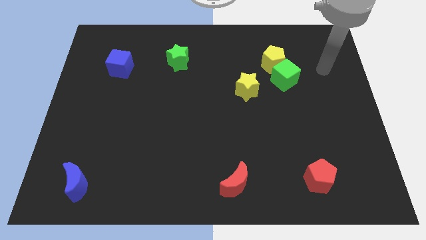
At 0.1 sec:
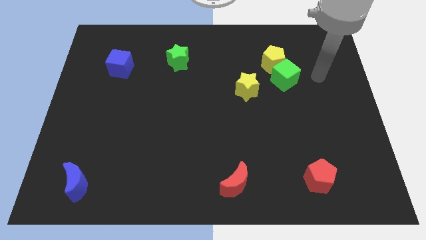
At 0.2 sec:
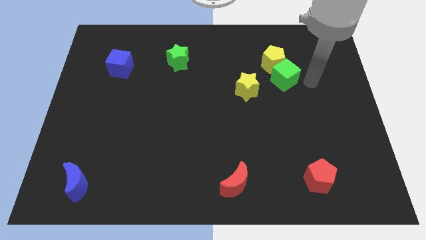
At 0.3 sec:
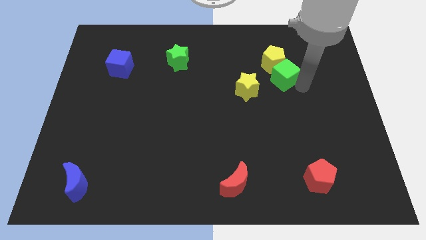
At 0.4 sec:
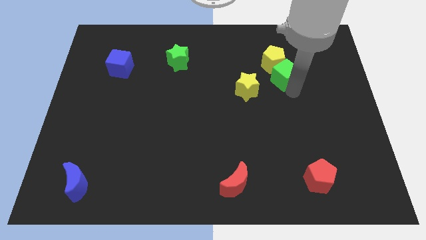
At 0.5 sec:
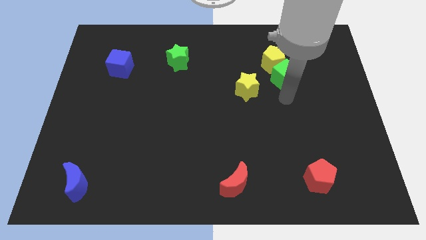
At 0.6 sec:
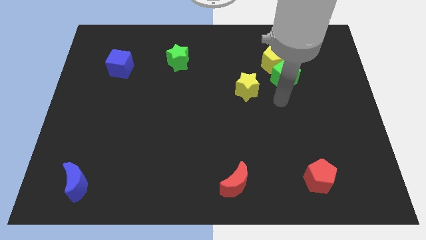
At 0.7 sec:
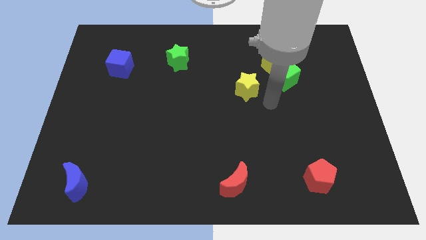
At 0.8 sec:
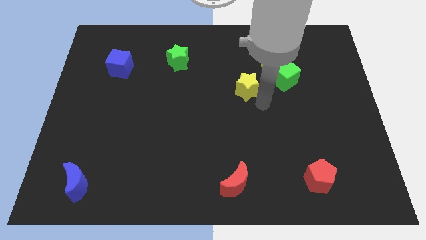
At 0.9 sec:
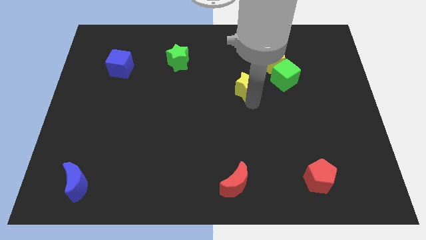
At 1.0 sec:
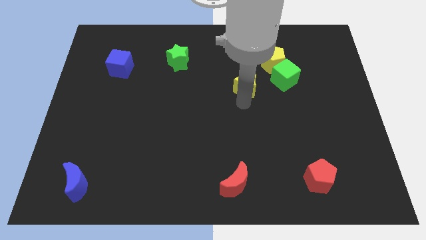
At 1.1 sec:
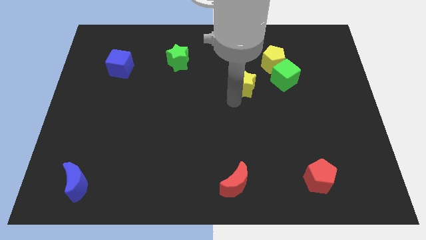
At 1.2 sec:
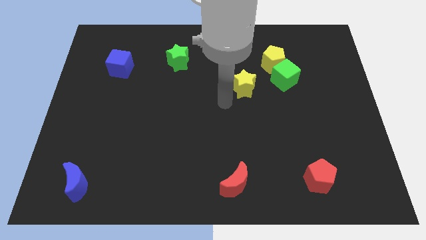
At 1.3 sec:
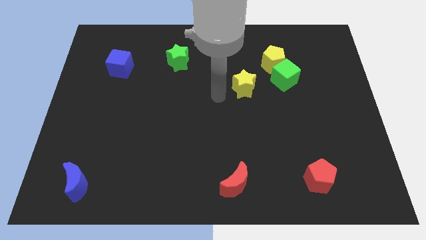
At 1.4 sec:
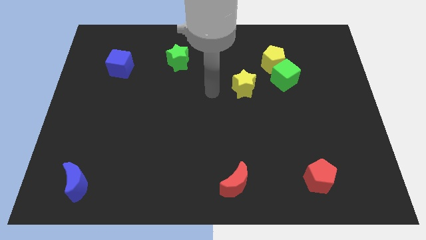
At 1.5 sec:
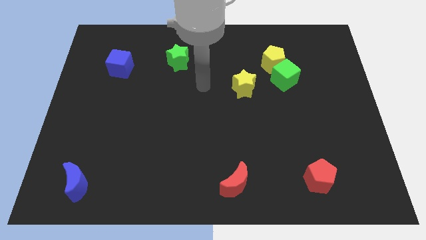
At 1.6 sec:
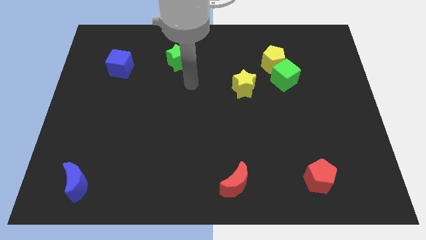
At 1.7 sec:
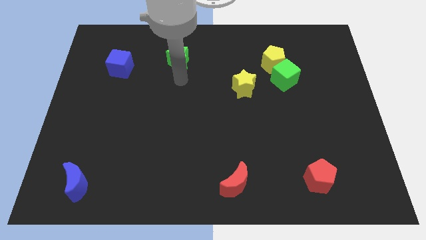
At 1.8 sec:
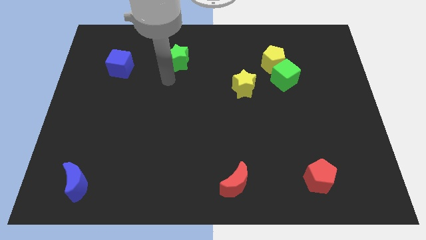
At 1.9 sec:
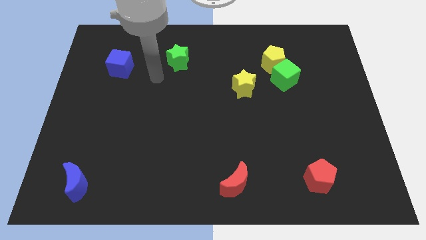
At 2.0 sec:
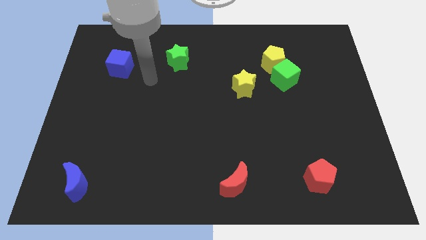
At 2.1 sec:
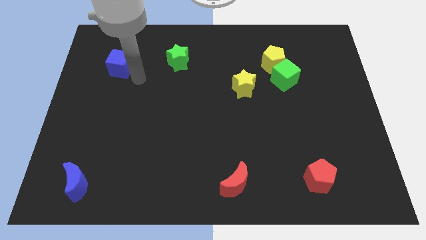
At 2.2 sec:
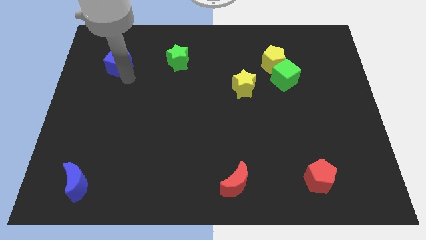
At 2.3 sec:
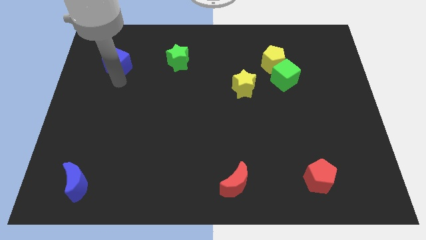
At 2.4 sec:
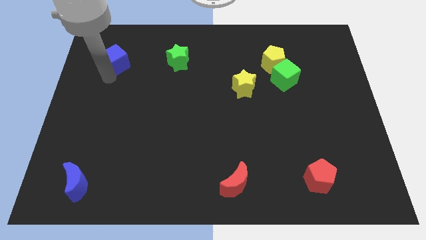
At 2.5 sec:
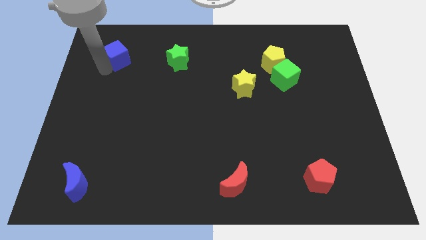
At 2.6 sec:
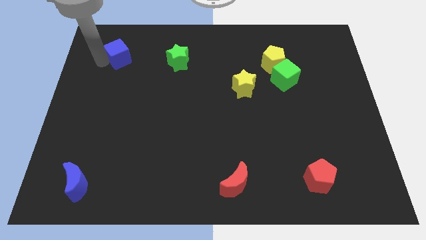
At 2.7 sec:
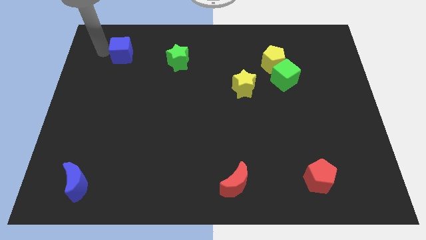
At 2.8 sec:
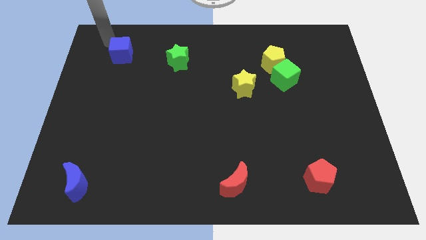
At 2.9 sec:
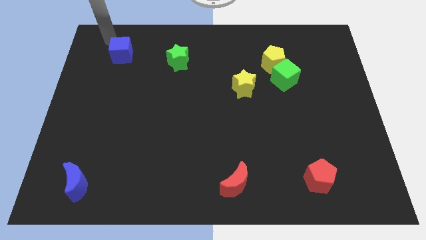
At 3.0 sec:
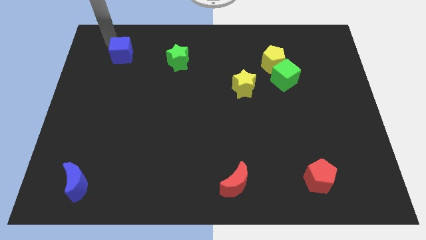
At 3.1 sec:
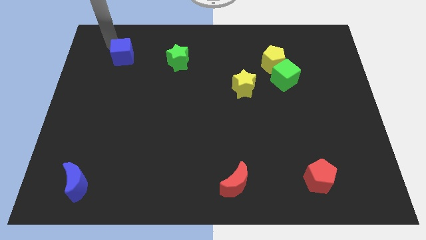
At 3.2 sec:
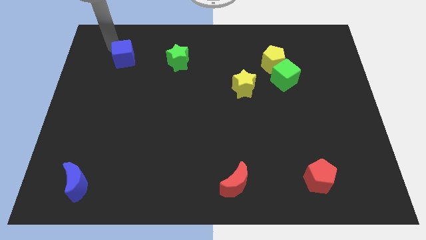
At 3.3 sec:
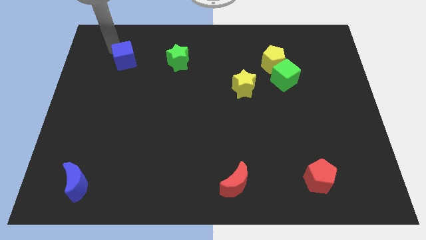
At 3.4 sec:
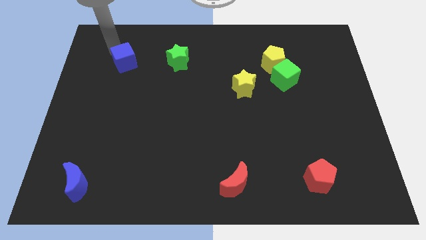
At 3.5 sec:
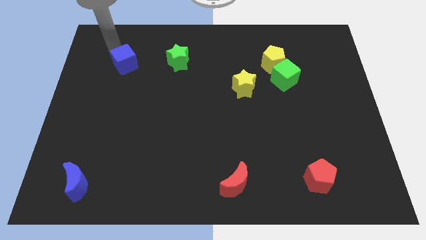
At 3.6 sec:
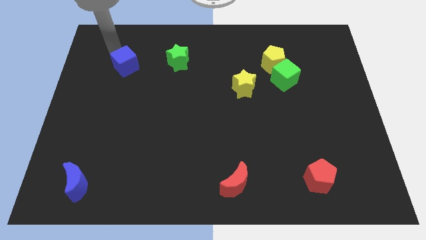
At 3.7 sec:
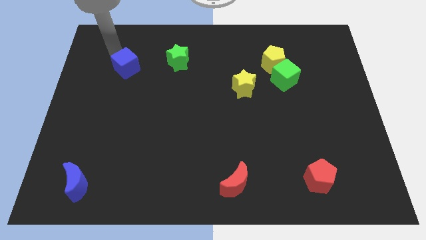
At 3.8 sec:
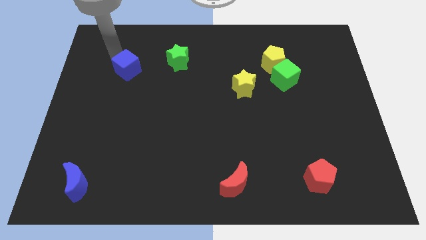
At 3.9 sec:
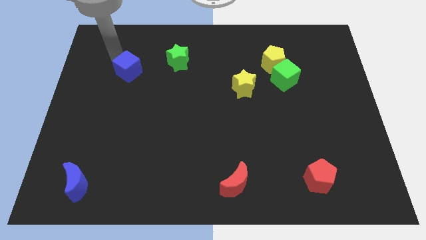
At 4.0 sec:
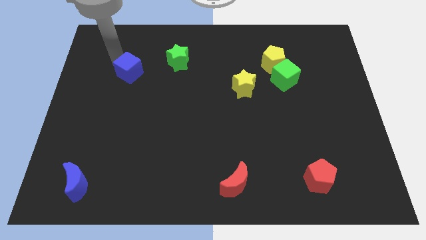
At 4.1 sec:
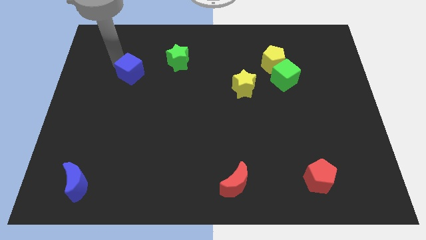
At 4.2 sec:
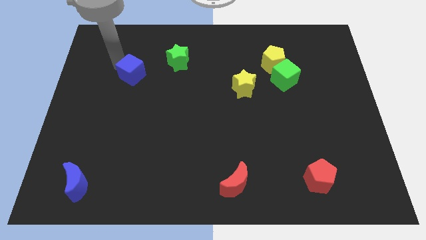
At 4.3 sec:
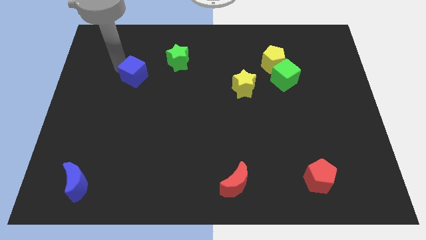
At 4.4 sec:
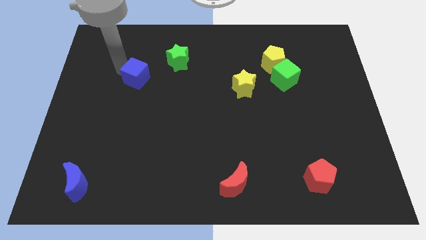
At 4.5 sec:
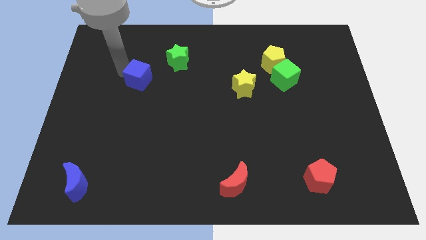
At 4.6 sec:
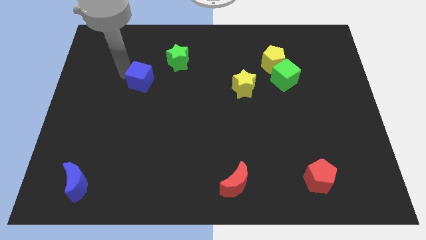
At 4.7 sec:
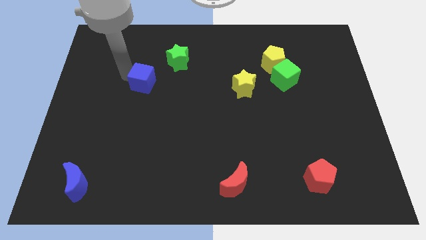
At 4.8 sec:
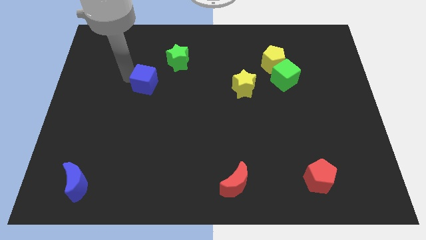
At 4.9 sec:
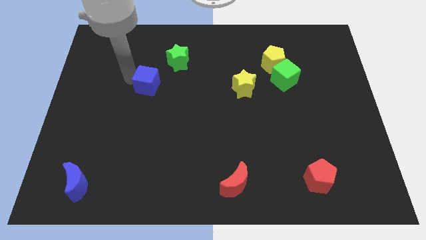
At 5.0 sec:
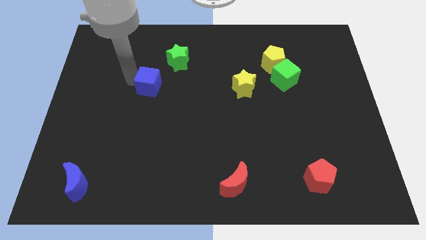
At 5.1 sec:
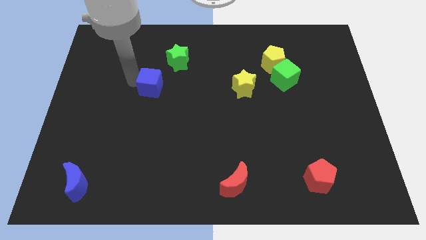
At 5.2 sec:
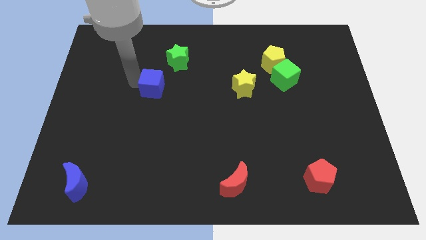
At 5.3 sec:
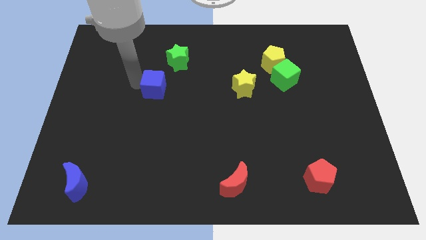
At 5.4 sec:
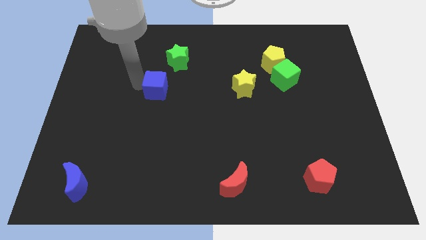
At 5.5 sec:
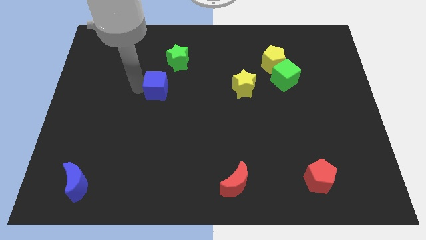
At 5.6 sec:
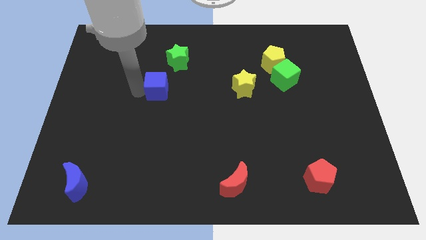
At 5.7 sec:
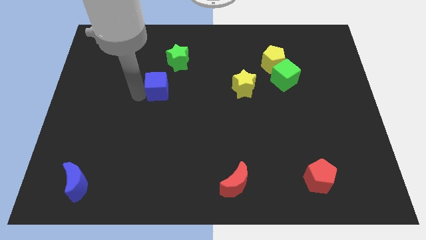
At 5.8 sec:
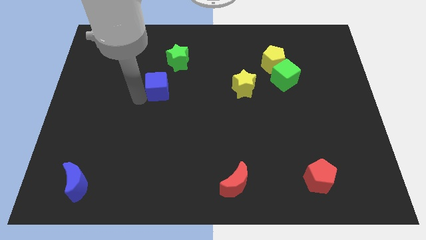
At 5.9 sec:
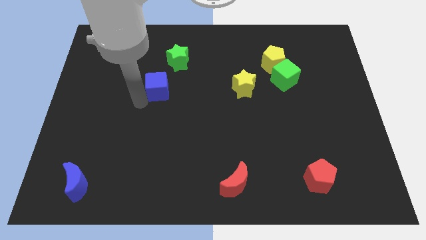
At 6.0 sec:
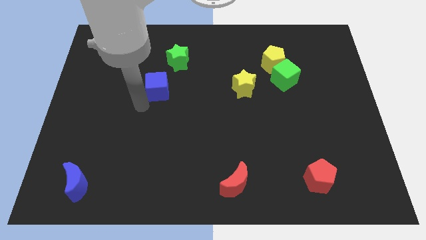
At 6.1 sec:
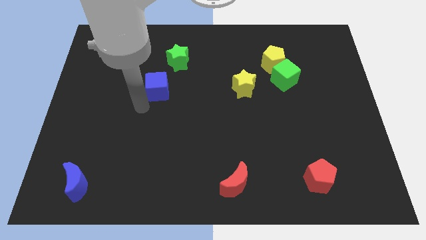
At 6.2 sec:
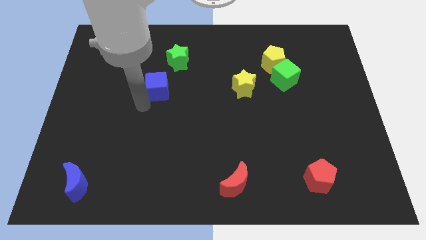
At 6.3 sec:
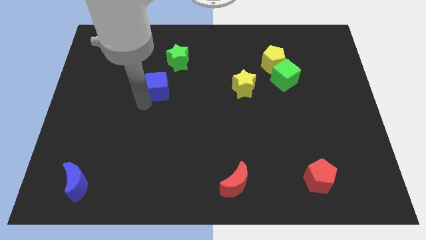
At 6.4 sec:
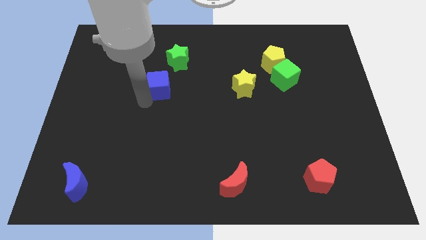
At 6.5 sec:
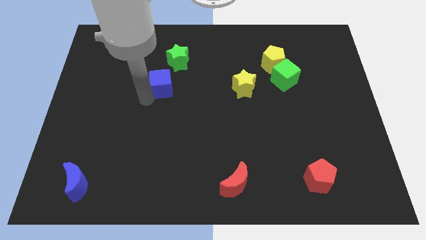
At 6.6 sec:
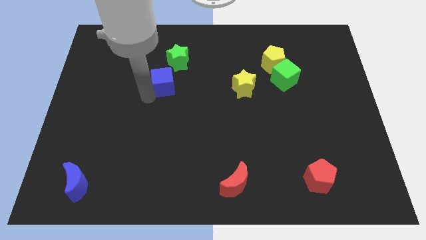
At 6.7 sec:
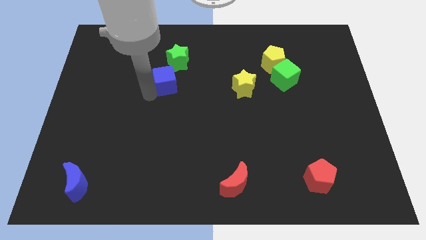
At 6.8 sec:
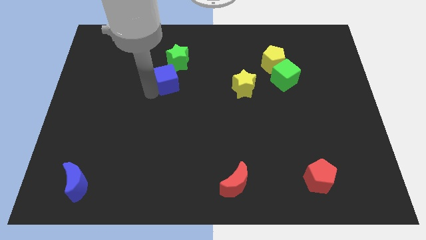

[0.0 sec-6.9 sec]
move the blue cube to the center of the board
